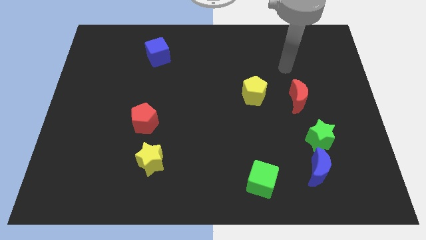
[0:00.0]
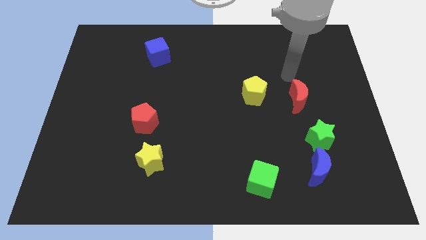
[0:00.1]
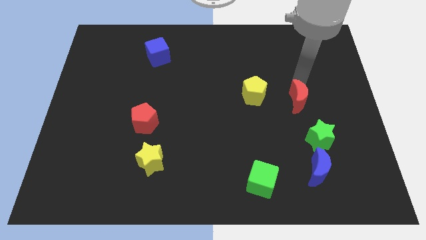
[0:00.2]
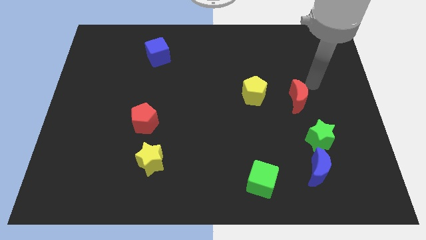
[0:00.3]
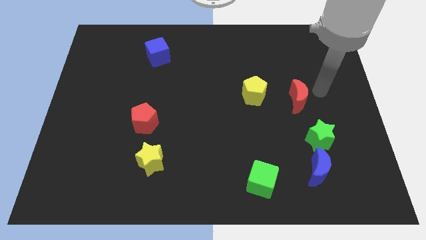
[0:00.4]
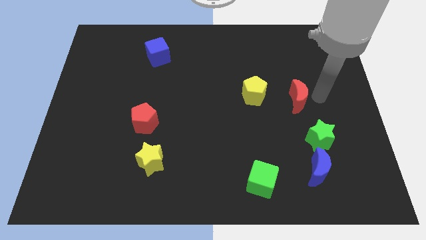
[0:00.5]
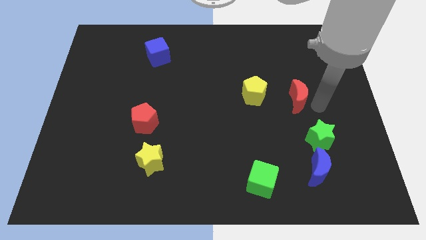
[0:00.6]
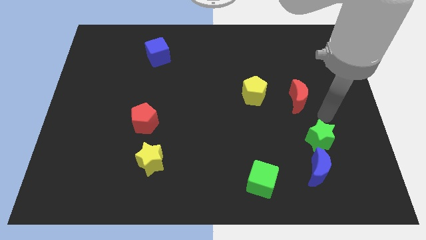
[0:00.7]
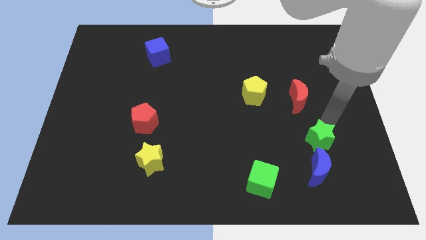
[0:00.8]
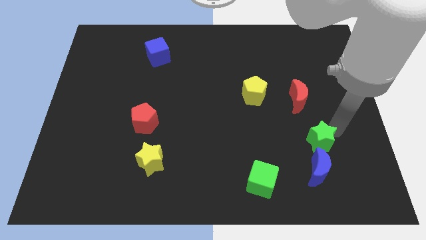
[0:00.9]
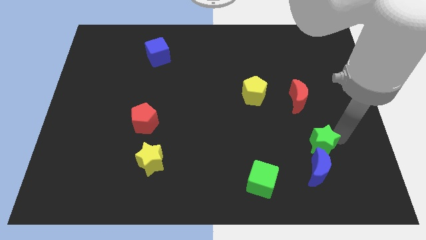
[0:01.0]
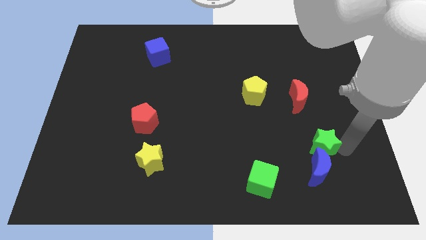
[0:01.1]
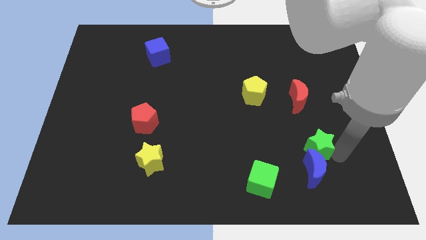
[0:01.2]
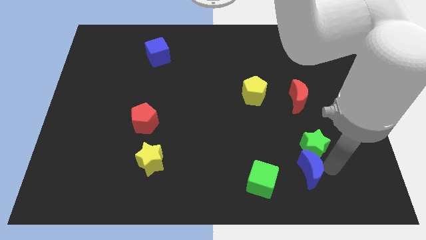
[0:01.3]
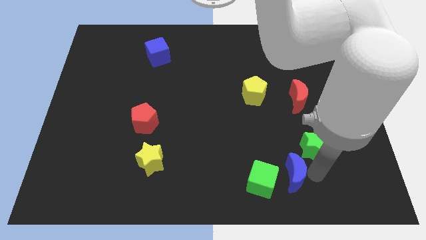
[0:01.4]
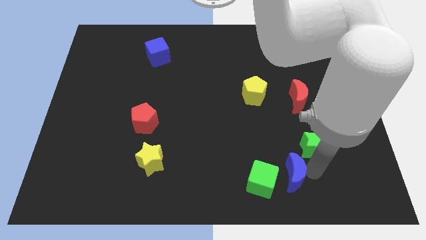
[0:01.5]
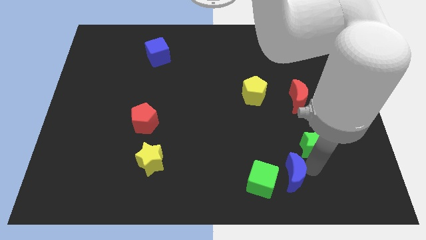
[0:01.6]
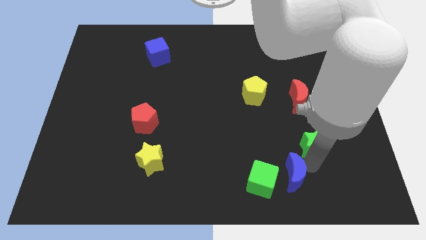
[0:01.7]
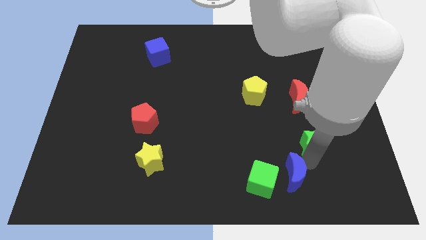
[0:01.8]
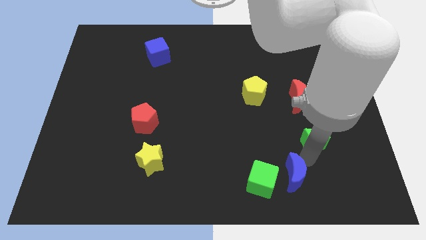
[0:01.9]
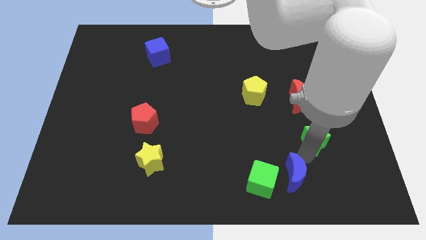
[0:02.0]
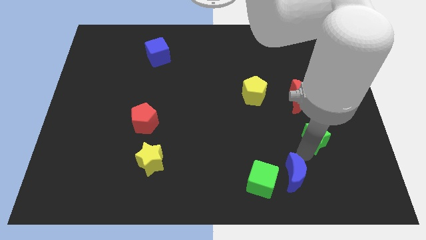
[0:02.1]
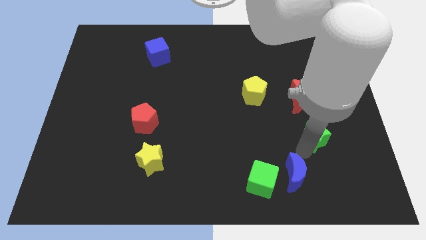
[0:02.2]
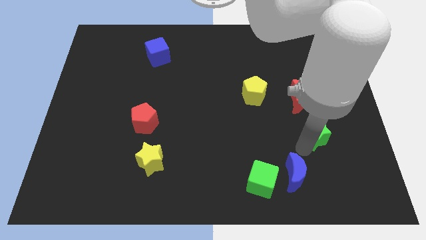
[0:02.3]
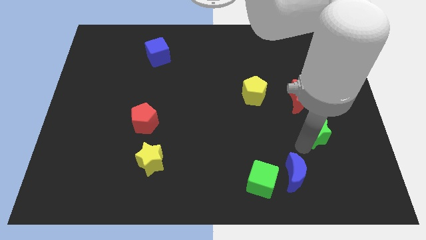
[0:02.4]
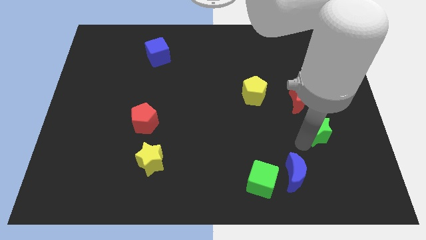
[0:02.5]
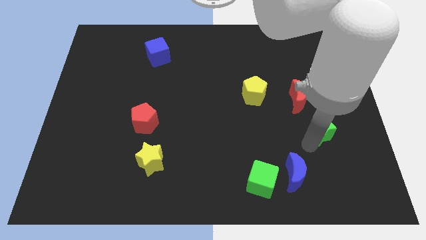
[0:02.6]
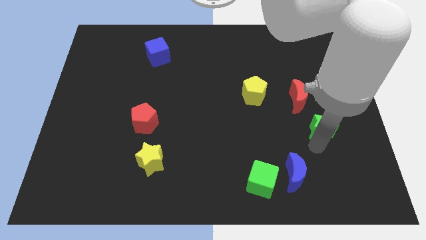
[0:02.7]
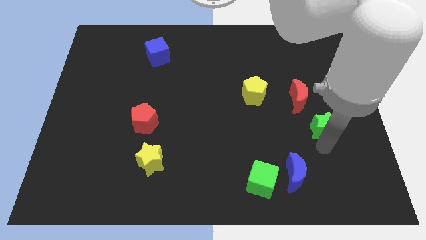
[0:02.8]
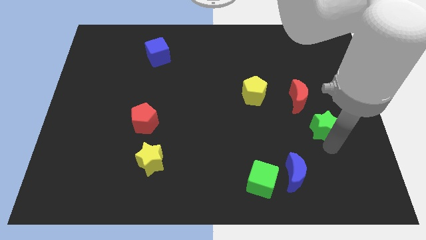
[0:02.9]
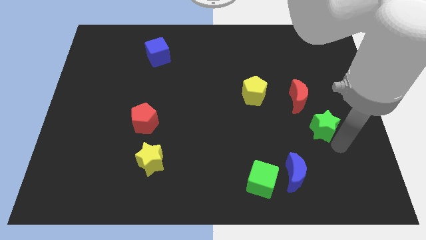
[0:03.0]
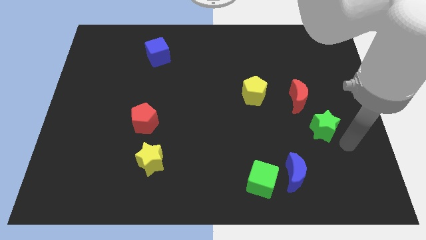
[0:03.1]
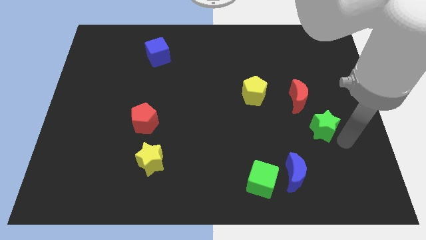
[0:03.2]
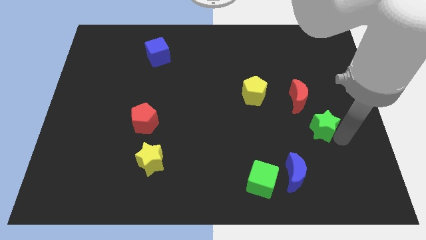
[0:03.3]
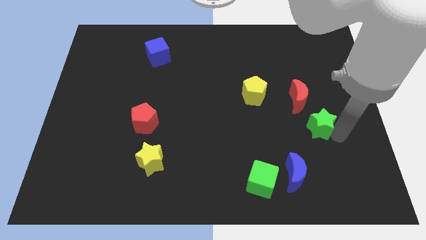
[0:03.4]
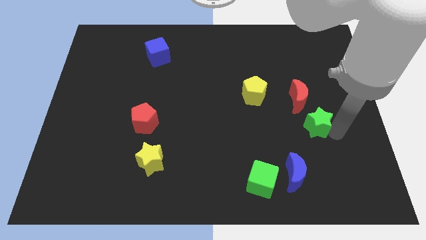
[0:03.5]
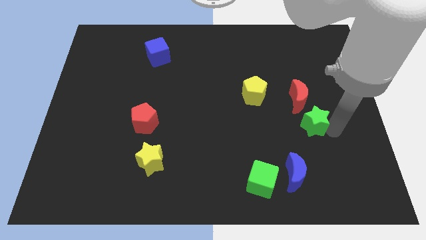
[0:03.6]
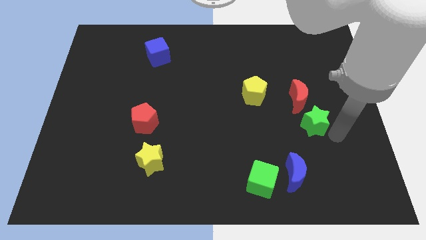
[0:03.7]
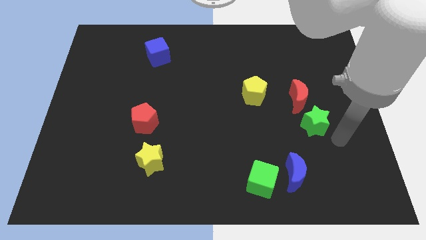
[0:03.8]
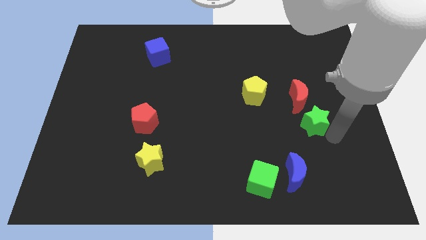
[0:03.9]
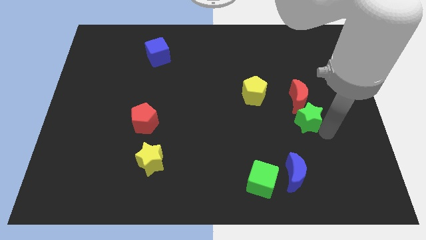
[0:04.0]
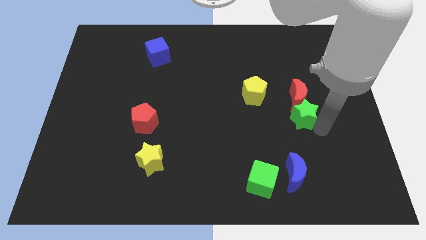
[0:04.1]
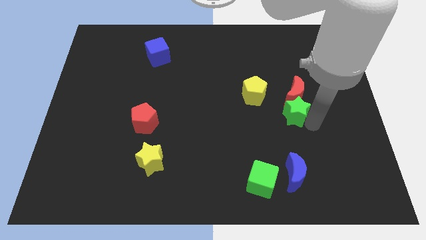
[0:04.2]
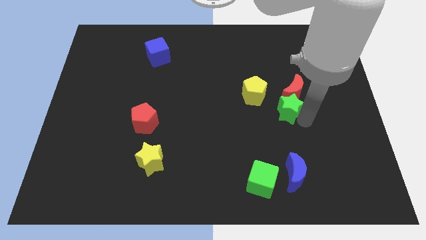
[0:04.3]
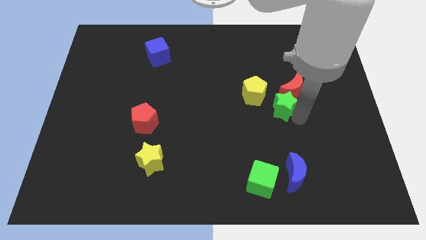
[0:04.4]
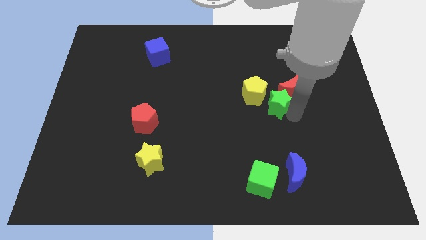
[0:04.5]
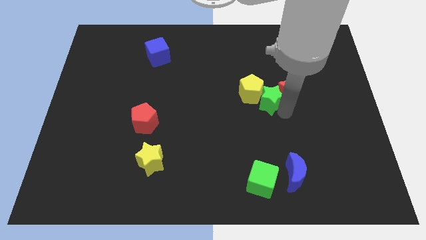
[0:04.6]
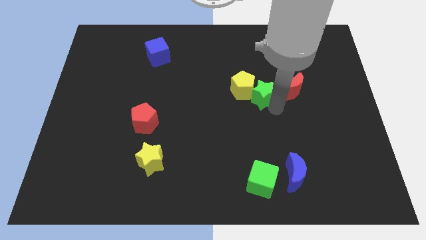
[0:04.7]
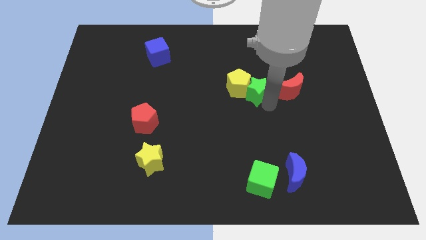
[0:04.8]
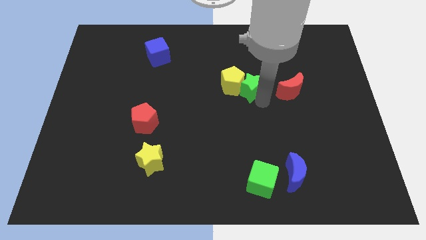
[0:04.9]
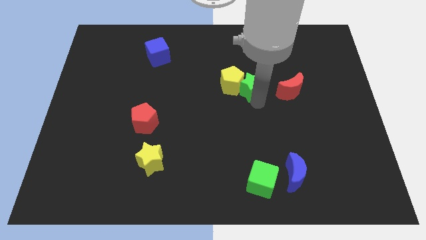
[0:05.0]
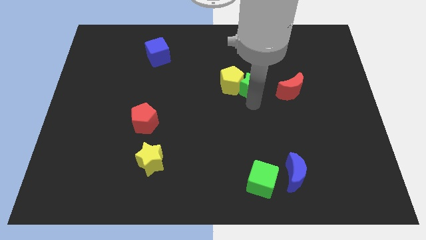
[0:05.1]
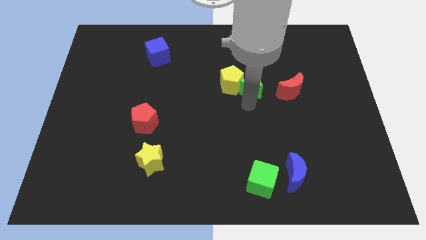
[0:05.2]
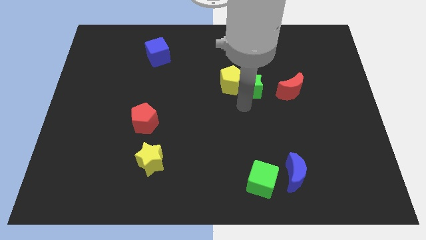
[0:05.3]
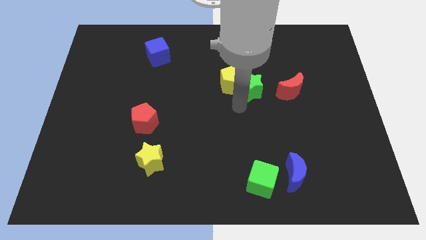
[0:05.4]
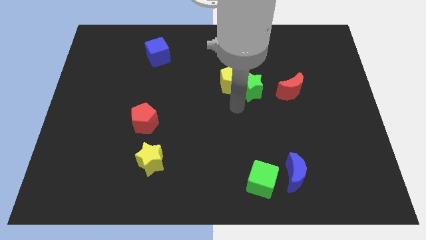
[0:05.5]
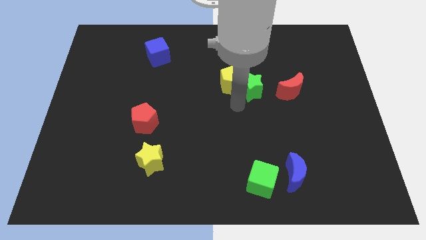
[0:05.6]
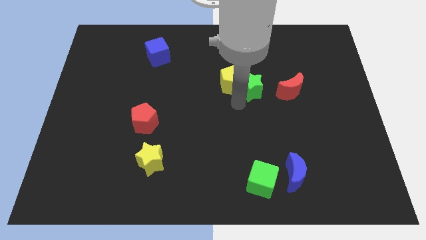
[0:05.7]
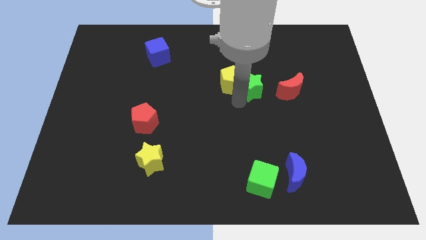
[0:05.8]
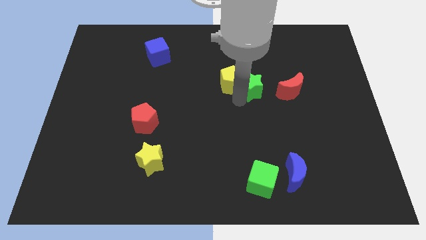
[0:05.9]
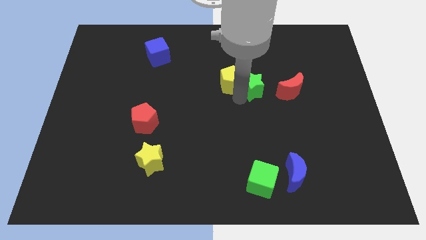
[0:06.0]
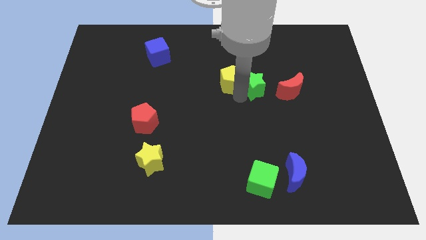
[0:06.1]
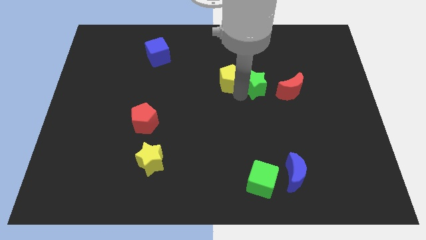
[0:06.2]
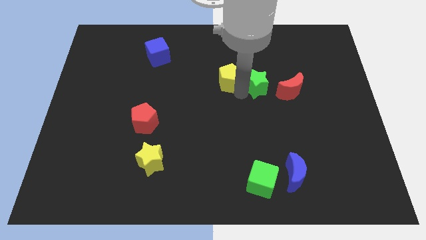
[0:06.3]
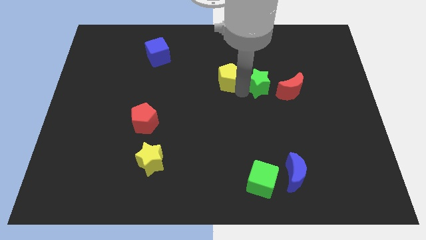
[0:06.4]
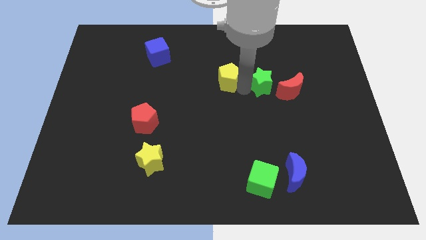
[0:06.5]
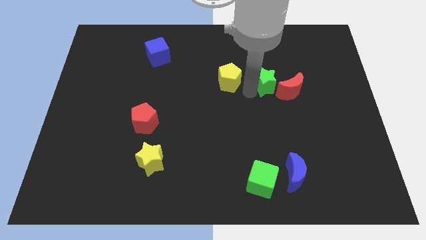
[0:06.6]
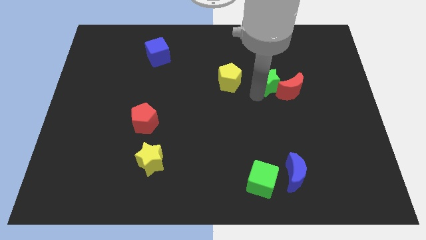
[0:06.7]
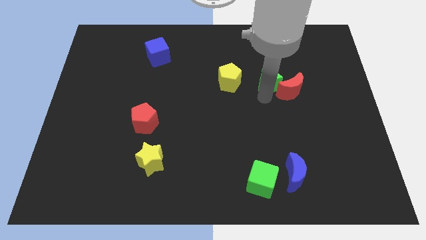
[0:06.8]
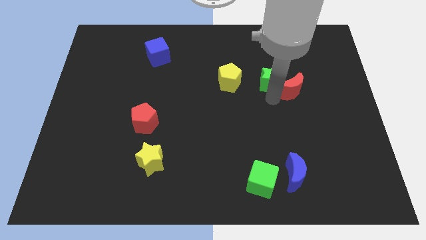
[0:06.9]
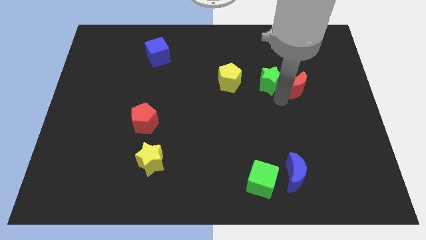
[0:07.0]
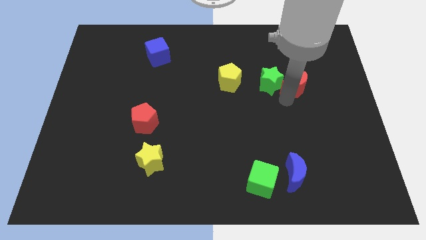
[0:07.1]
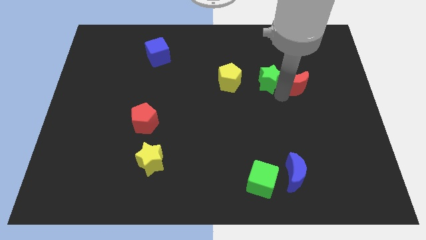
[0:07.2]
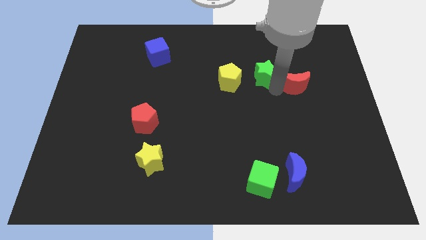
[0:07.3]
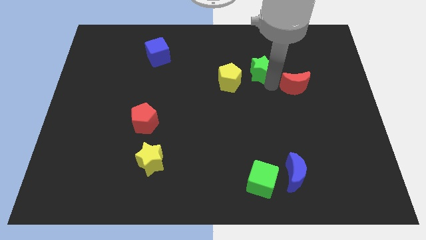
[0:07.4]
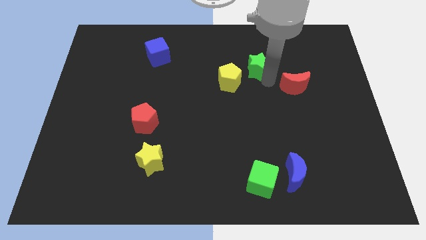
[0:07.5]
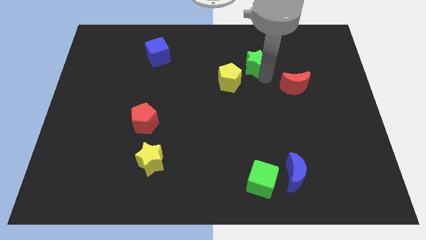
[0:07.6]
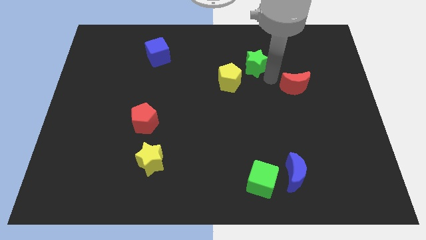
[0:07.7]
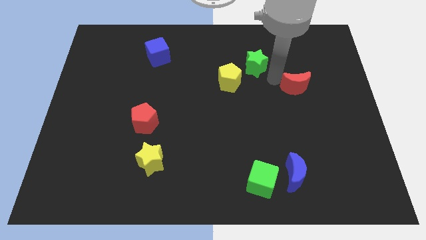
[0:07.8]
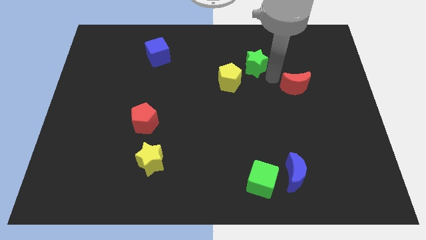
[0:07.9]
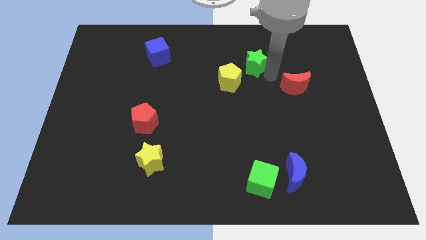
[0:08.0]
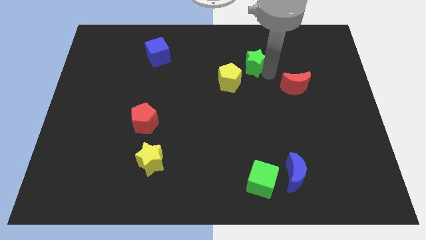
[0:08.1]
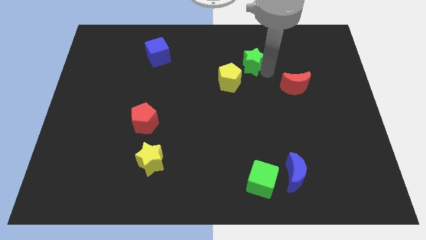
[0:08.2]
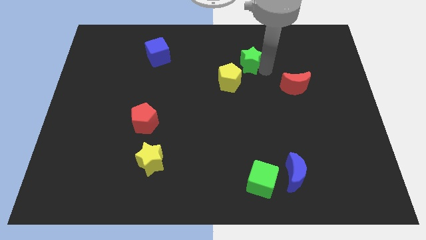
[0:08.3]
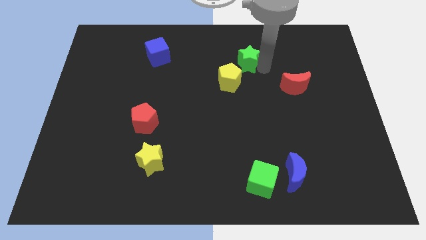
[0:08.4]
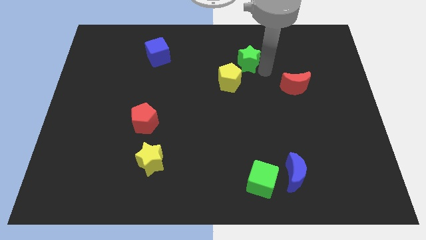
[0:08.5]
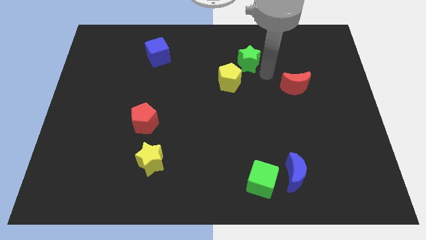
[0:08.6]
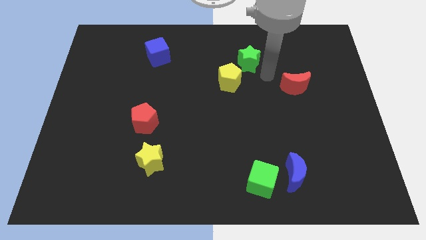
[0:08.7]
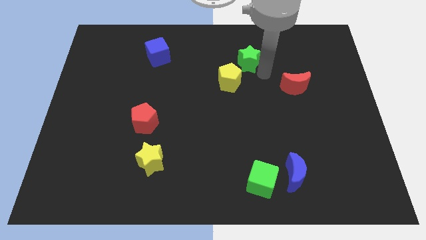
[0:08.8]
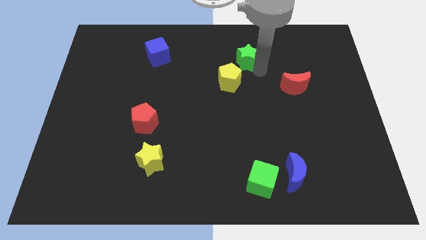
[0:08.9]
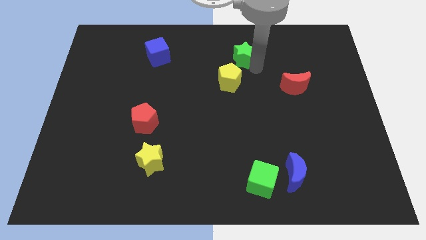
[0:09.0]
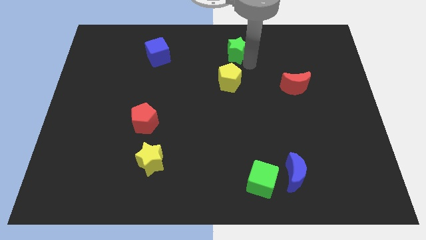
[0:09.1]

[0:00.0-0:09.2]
put the green star to the towards your base
